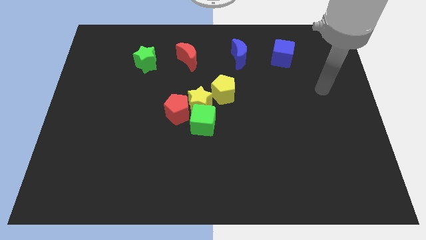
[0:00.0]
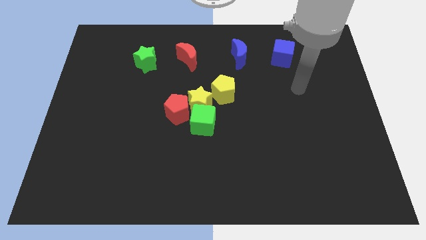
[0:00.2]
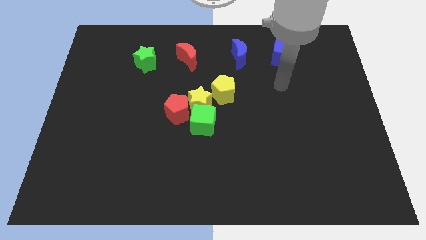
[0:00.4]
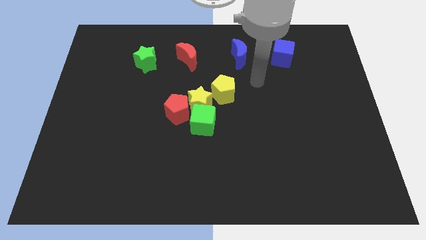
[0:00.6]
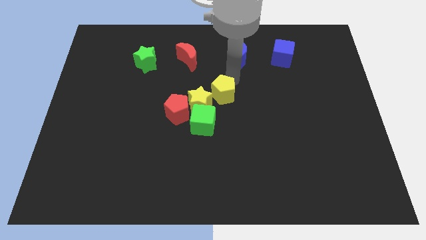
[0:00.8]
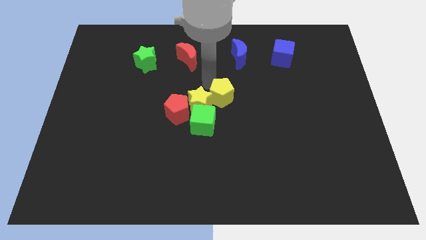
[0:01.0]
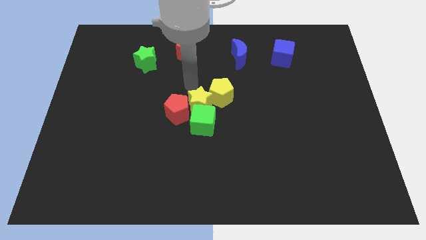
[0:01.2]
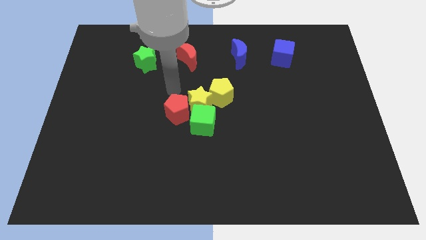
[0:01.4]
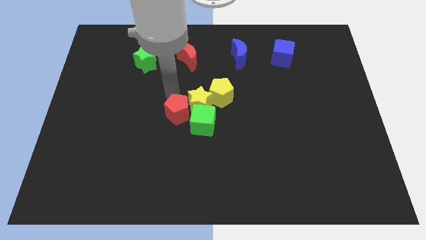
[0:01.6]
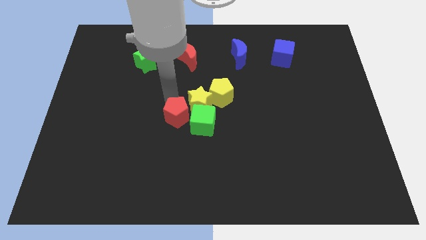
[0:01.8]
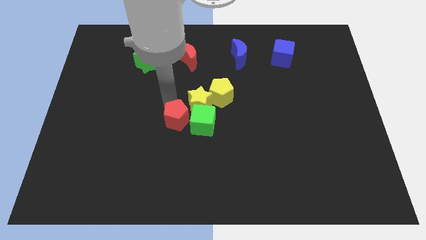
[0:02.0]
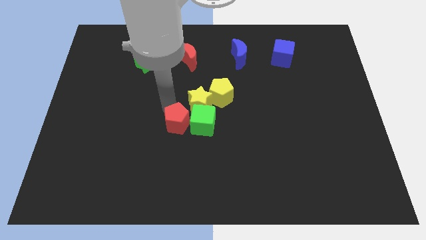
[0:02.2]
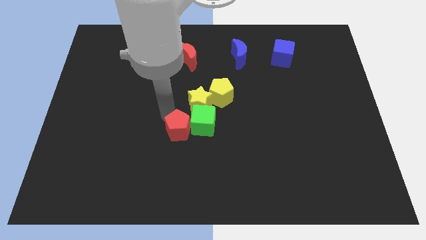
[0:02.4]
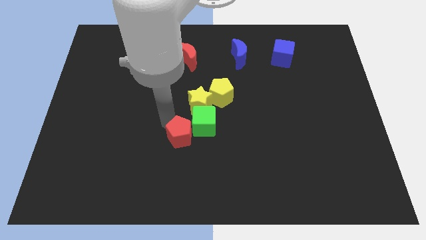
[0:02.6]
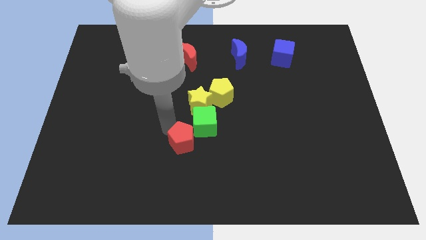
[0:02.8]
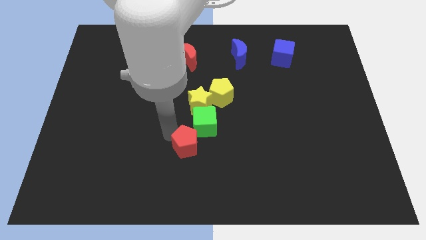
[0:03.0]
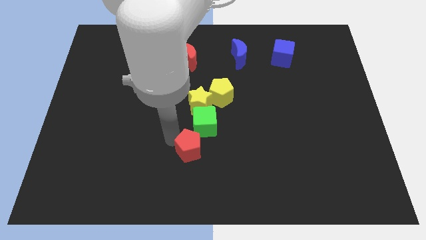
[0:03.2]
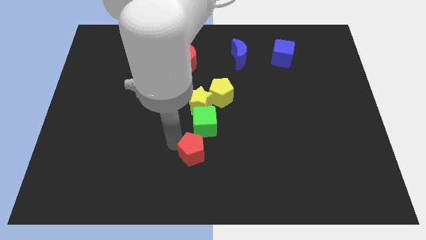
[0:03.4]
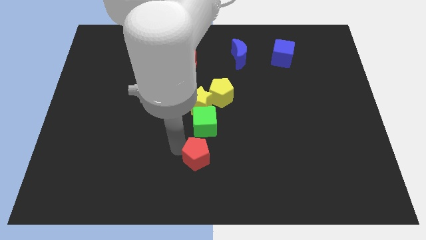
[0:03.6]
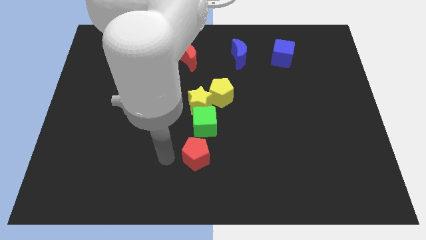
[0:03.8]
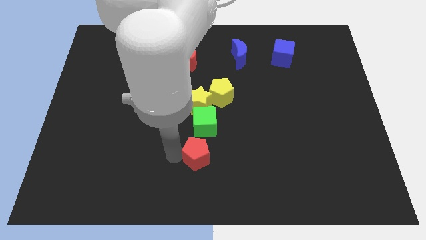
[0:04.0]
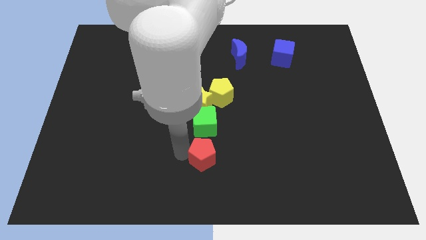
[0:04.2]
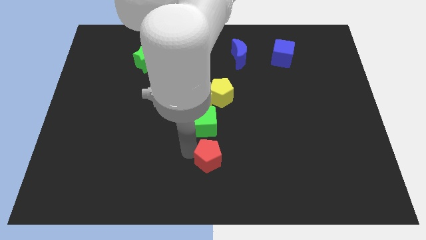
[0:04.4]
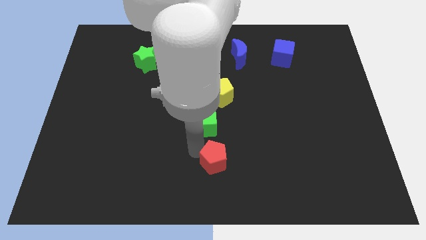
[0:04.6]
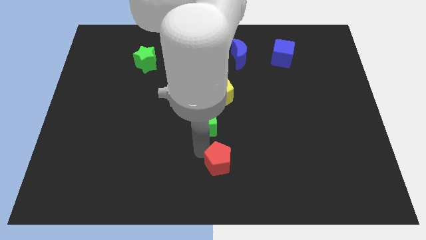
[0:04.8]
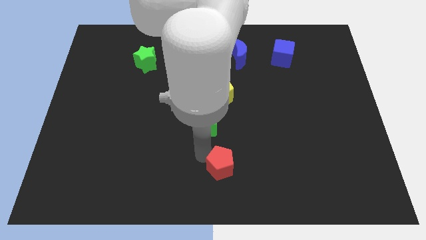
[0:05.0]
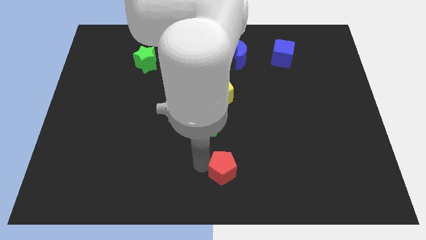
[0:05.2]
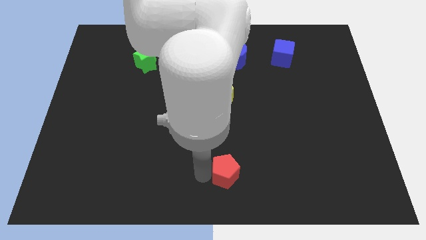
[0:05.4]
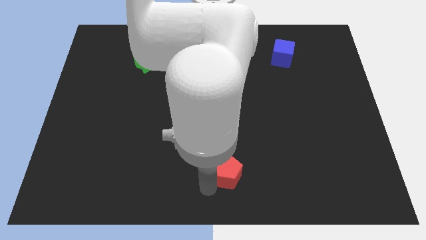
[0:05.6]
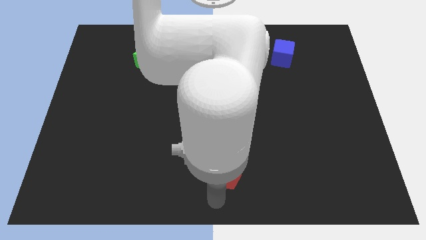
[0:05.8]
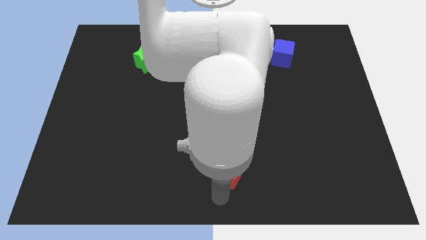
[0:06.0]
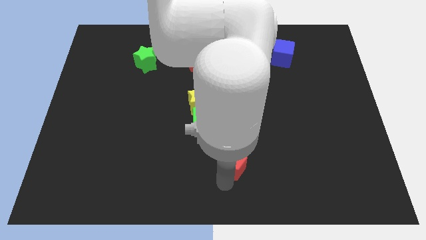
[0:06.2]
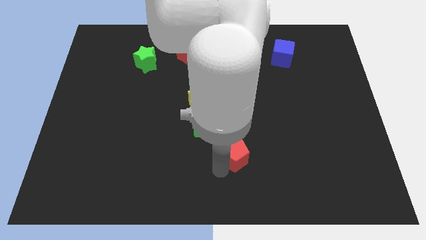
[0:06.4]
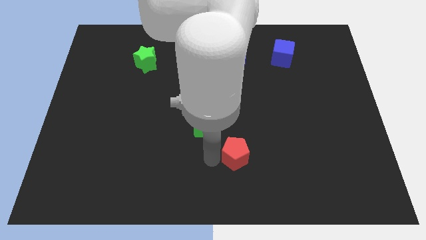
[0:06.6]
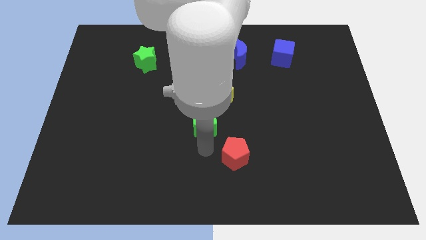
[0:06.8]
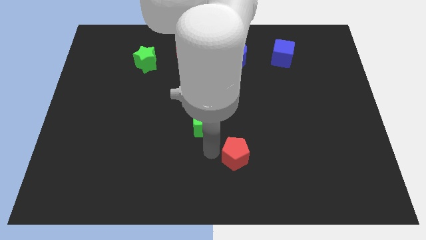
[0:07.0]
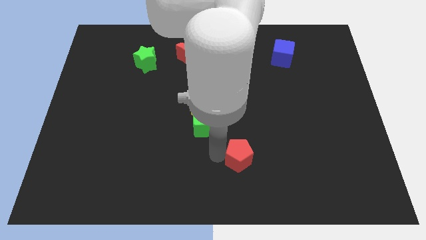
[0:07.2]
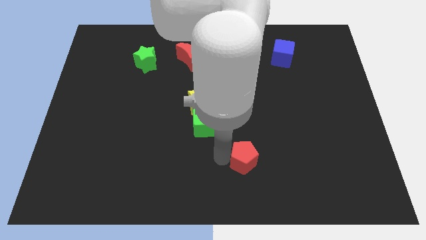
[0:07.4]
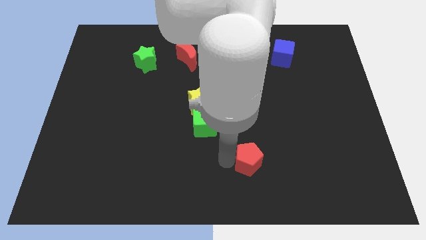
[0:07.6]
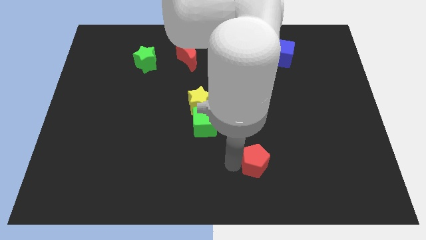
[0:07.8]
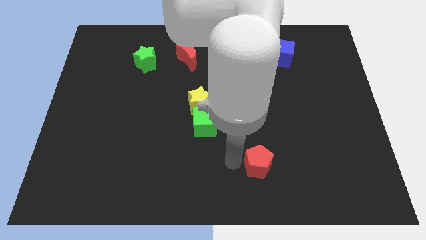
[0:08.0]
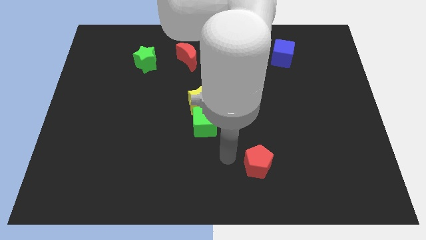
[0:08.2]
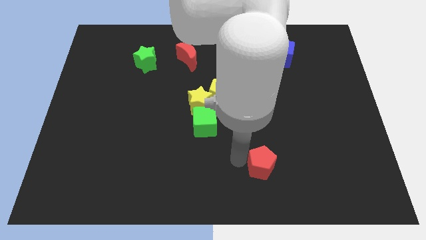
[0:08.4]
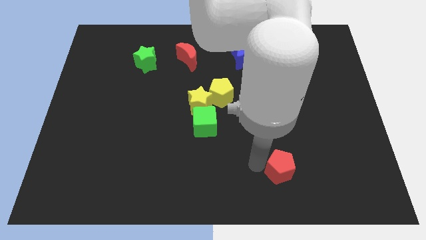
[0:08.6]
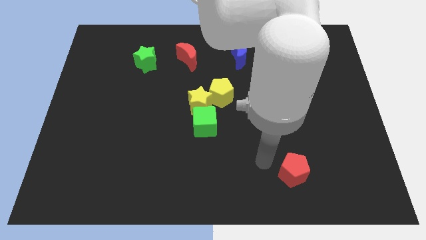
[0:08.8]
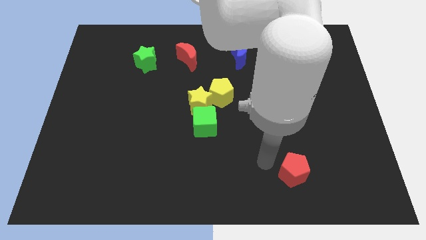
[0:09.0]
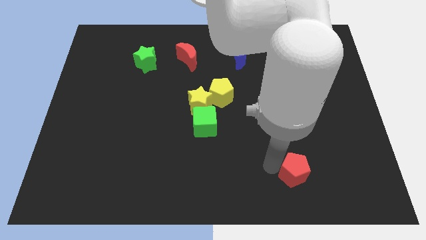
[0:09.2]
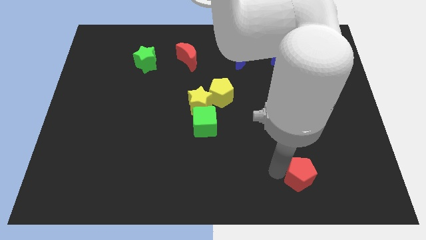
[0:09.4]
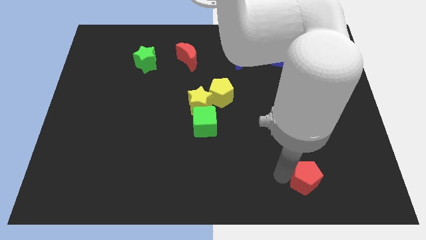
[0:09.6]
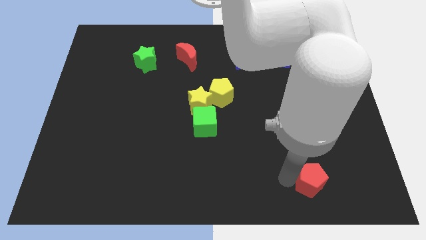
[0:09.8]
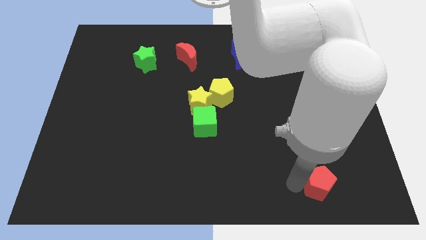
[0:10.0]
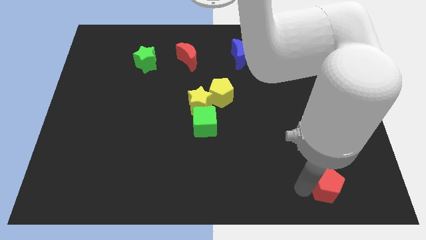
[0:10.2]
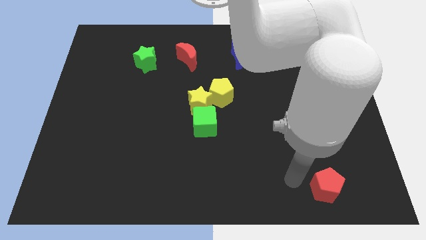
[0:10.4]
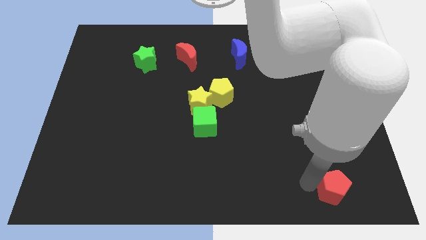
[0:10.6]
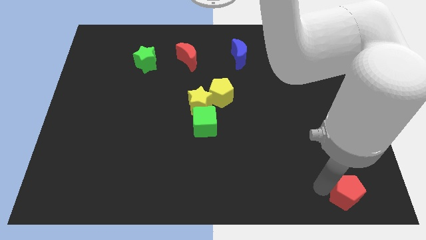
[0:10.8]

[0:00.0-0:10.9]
move the red pentagon to the lower right corner

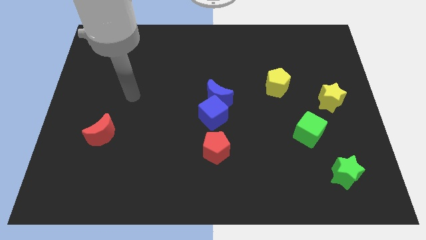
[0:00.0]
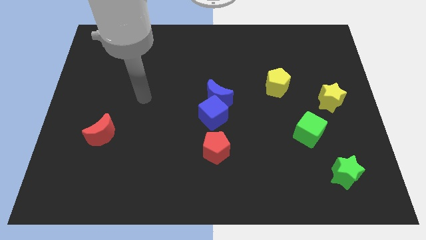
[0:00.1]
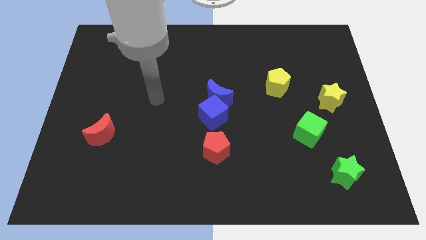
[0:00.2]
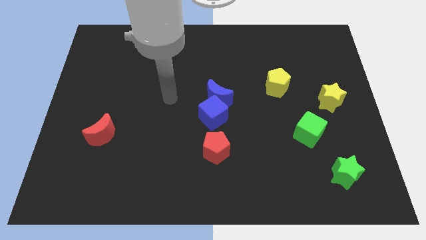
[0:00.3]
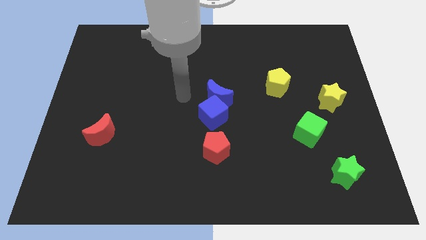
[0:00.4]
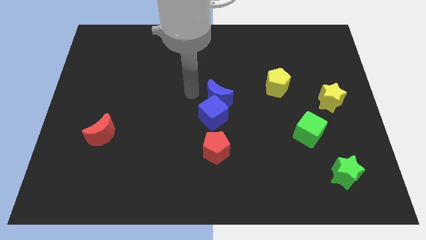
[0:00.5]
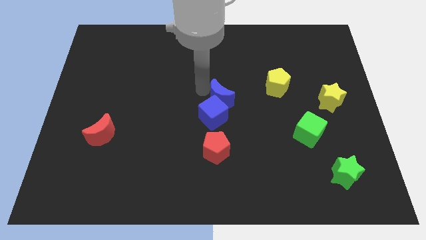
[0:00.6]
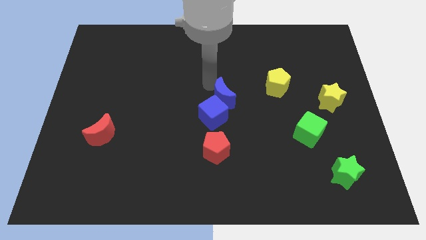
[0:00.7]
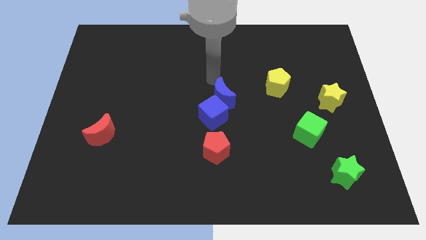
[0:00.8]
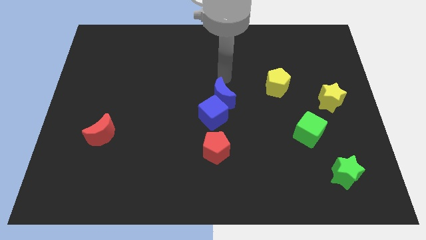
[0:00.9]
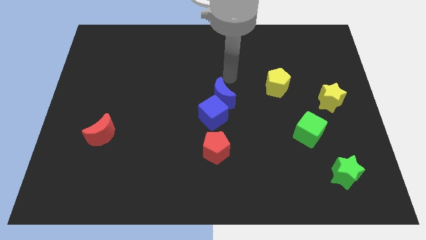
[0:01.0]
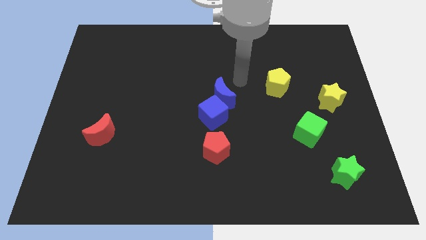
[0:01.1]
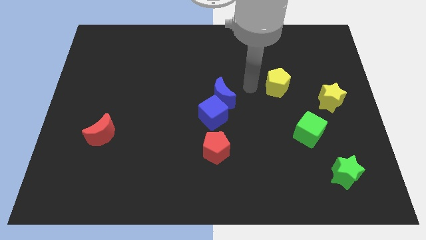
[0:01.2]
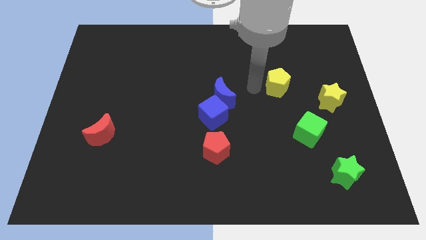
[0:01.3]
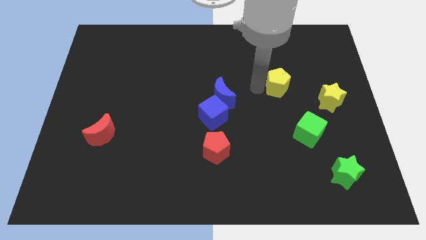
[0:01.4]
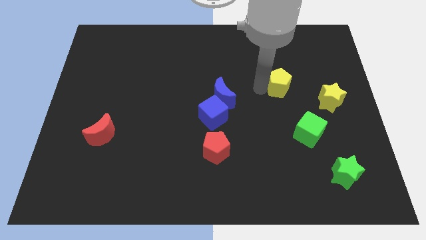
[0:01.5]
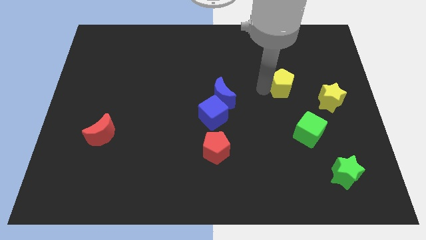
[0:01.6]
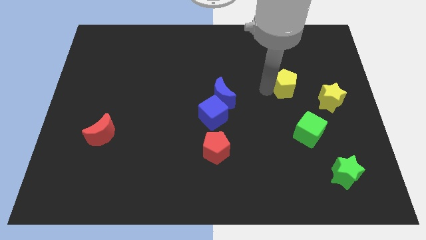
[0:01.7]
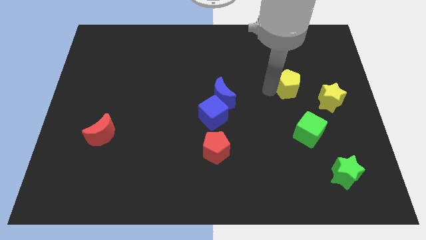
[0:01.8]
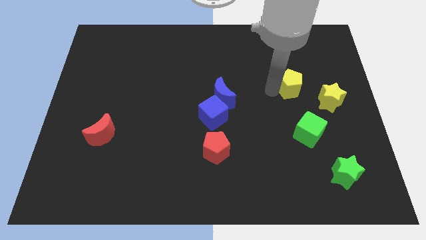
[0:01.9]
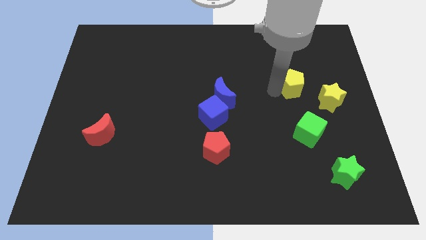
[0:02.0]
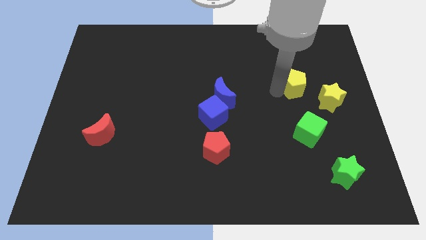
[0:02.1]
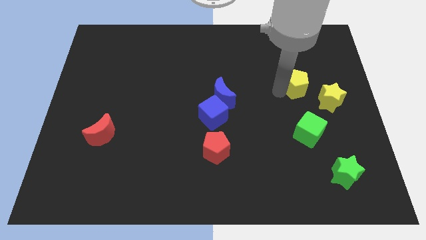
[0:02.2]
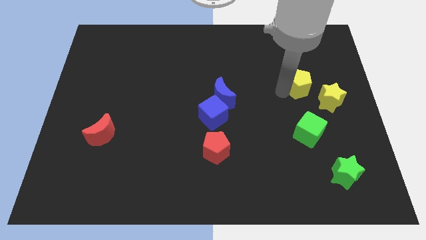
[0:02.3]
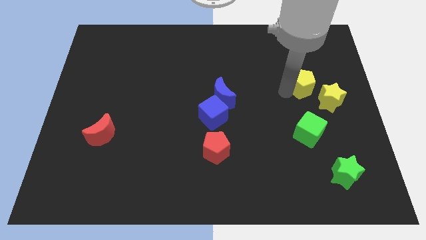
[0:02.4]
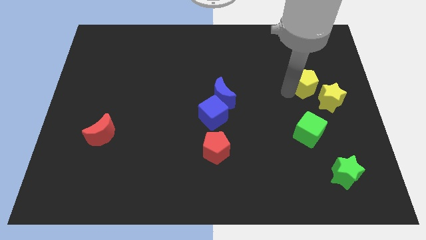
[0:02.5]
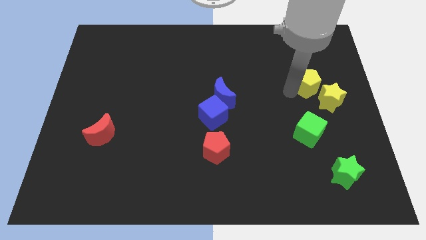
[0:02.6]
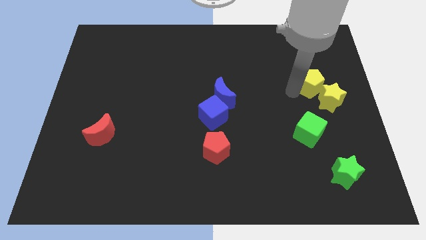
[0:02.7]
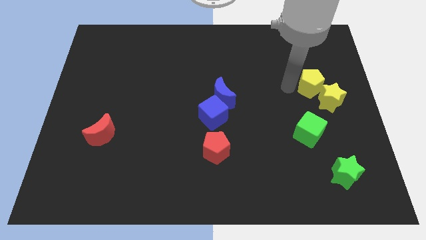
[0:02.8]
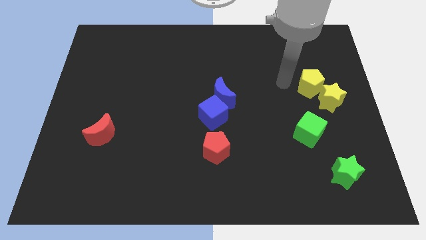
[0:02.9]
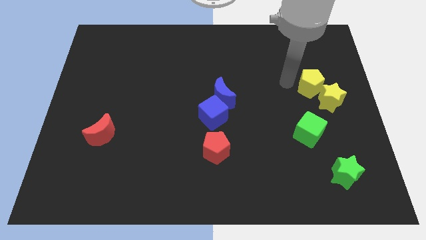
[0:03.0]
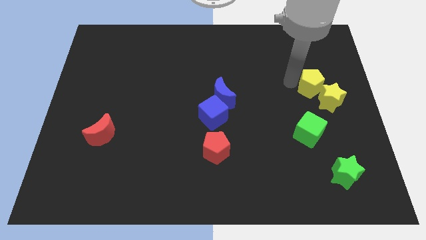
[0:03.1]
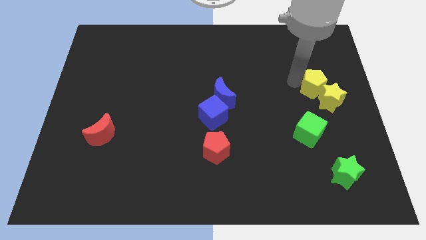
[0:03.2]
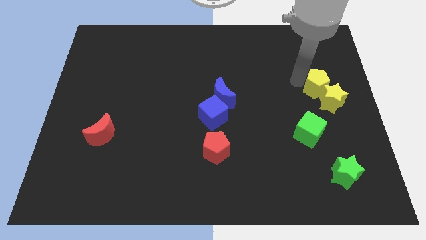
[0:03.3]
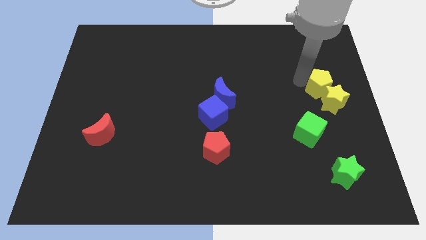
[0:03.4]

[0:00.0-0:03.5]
put the yellow pentagon to the right side of the board
